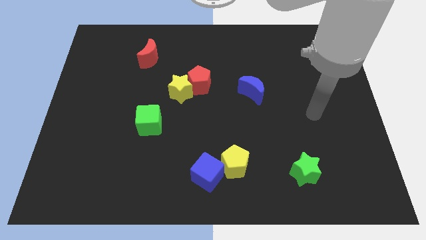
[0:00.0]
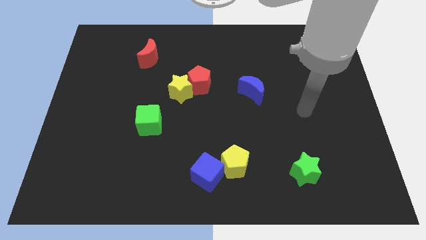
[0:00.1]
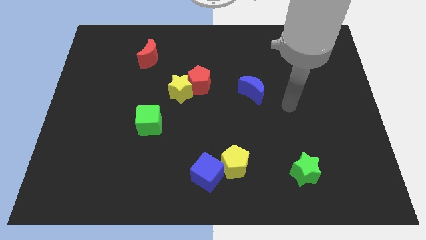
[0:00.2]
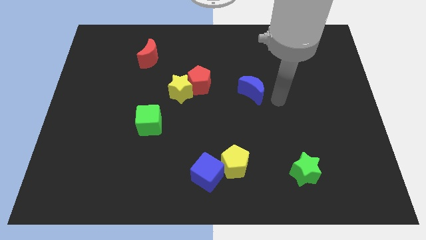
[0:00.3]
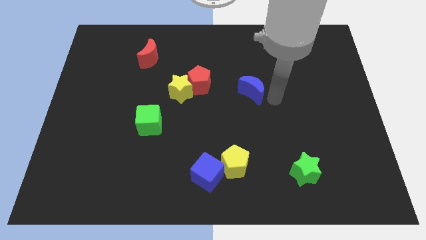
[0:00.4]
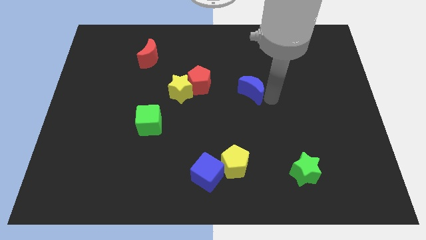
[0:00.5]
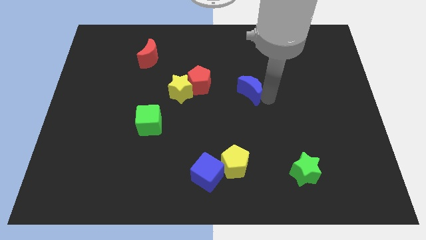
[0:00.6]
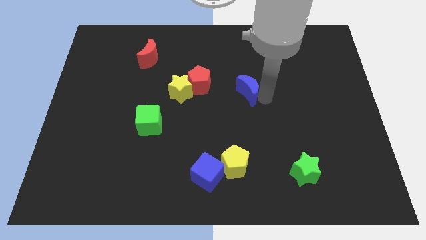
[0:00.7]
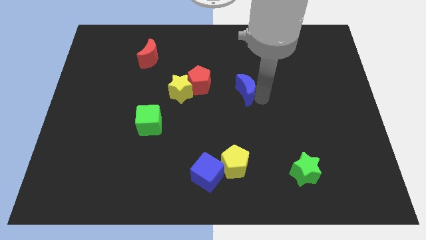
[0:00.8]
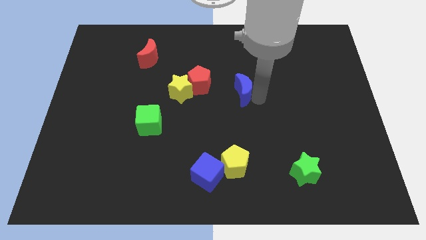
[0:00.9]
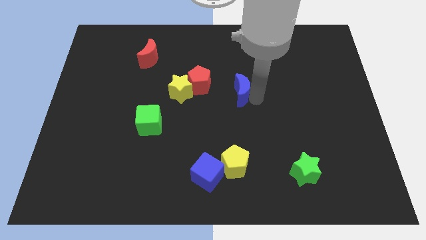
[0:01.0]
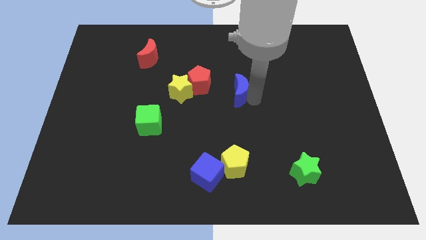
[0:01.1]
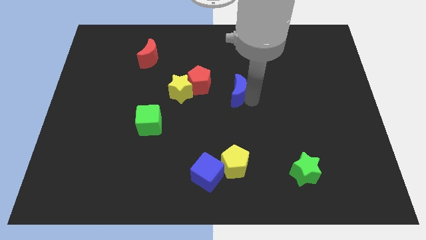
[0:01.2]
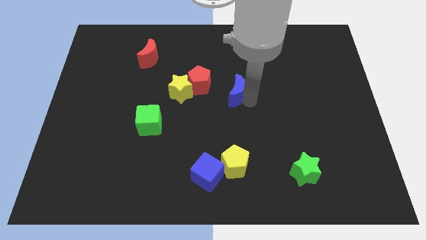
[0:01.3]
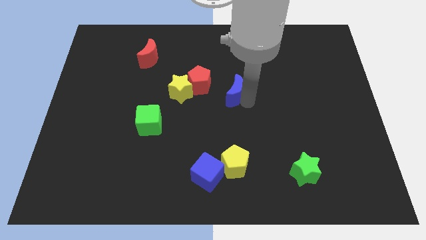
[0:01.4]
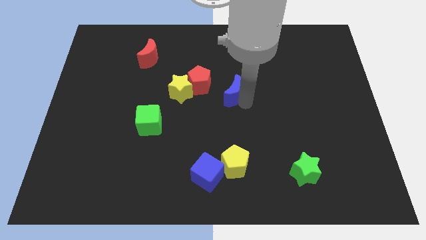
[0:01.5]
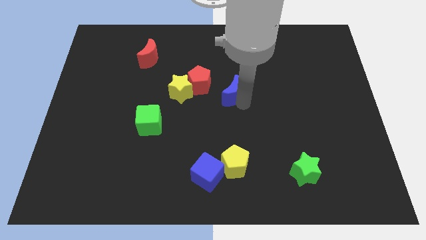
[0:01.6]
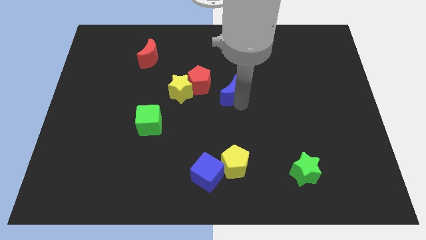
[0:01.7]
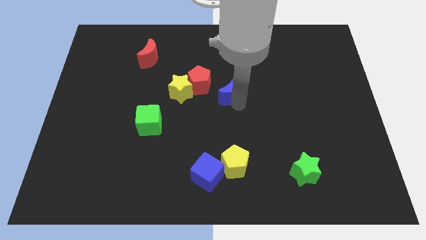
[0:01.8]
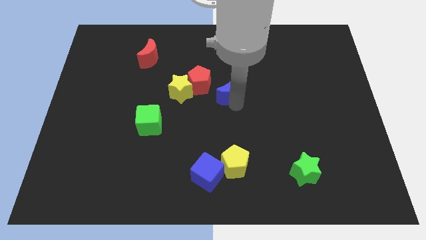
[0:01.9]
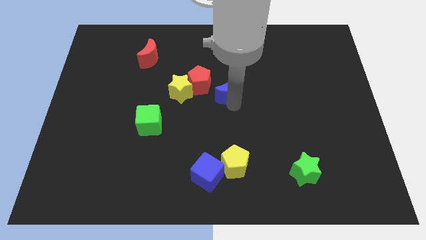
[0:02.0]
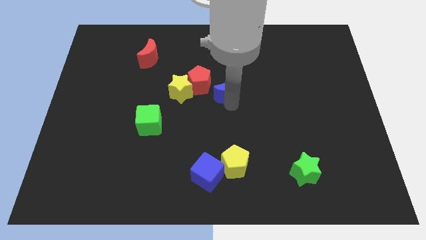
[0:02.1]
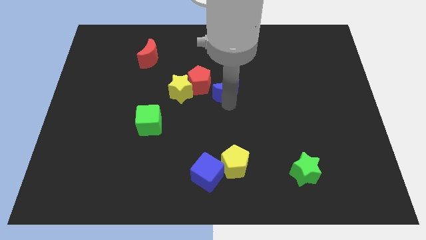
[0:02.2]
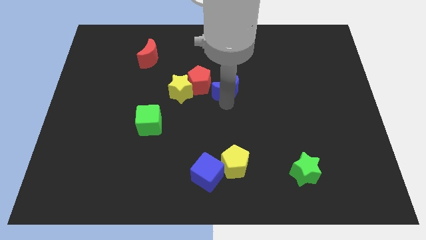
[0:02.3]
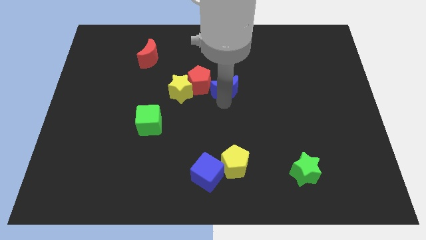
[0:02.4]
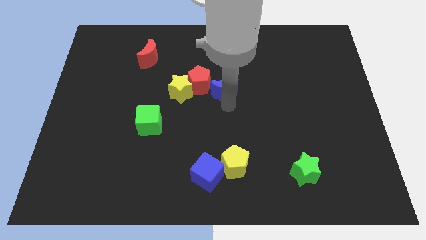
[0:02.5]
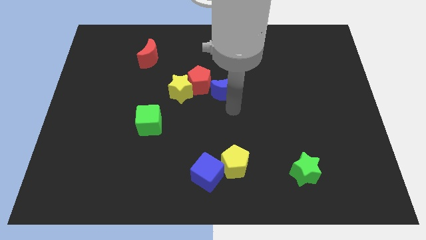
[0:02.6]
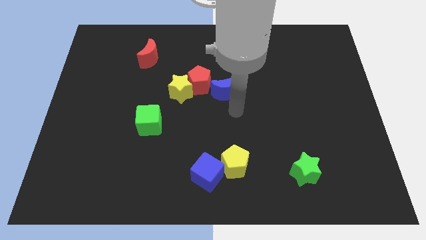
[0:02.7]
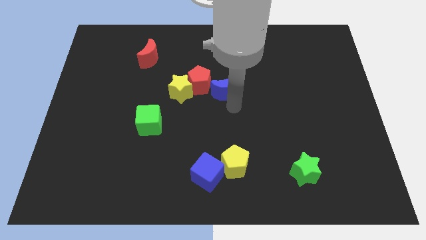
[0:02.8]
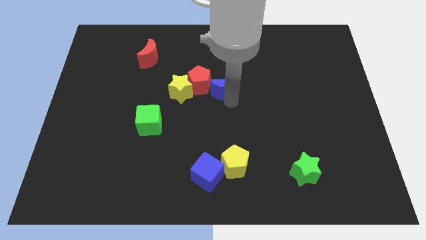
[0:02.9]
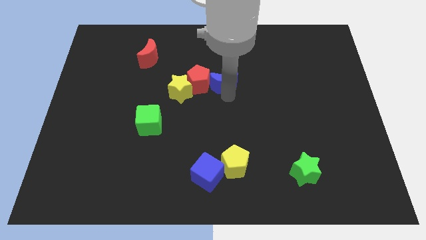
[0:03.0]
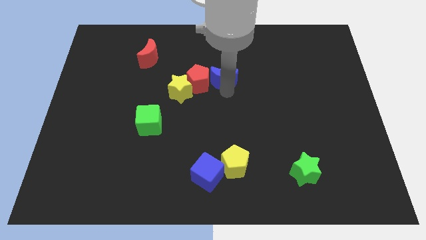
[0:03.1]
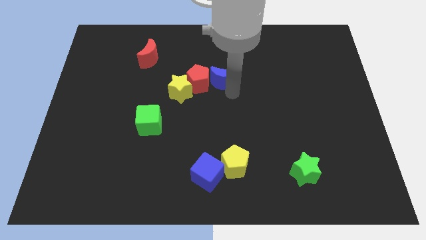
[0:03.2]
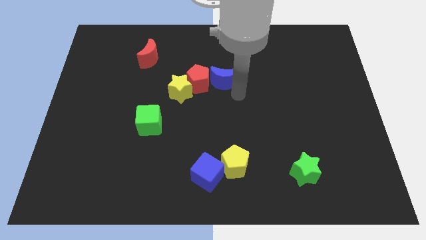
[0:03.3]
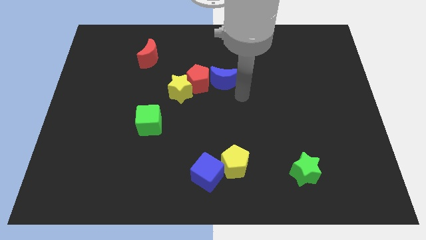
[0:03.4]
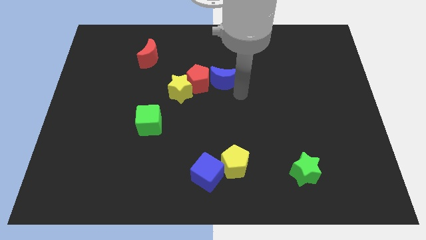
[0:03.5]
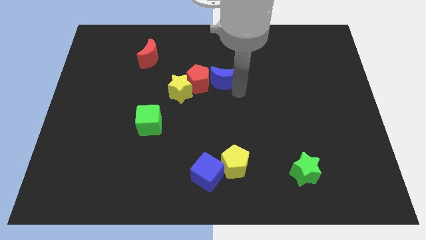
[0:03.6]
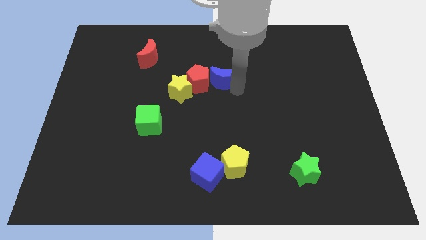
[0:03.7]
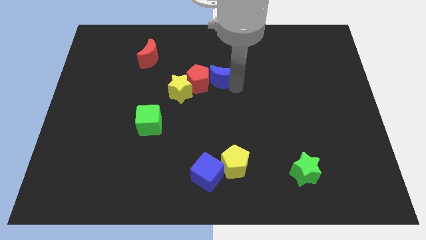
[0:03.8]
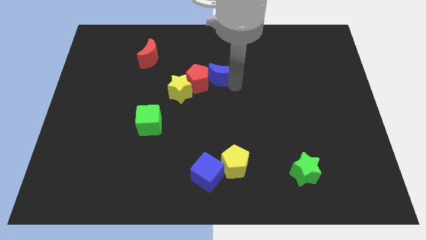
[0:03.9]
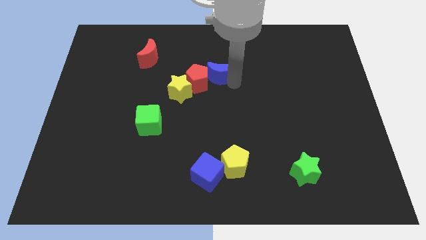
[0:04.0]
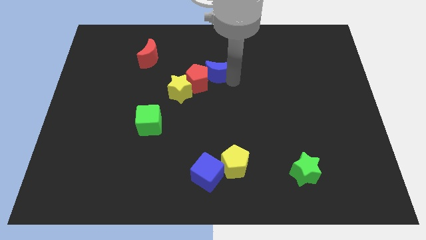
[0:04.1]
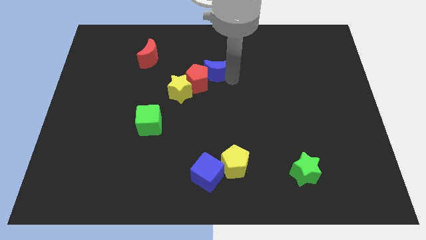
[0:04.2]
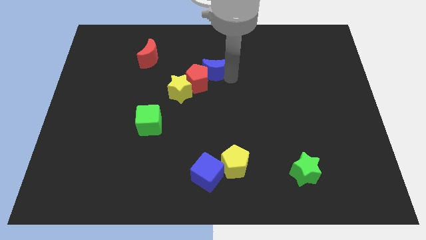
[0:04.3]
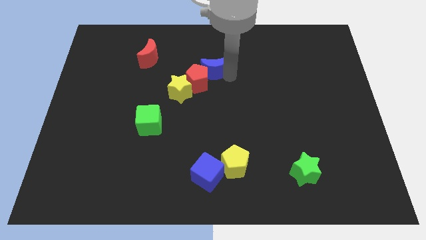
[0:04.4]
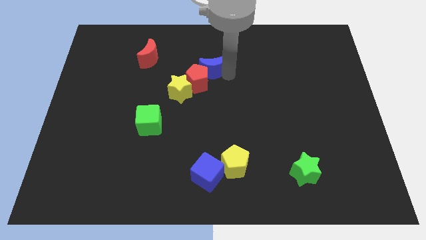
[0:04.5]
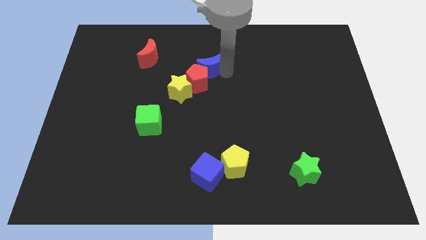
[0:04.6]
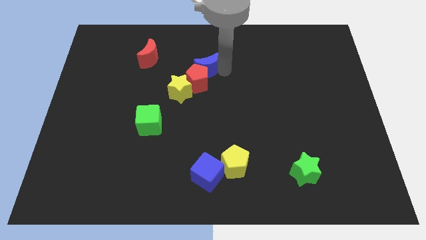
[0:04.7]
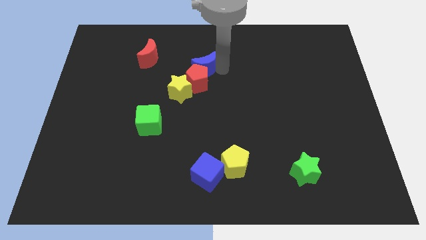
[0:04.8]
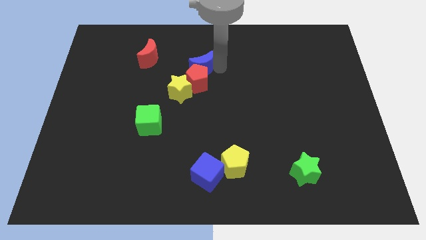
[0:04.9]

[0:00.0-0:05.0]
put the blue moon to the right side of the red moon

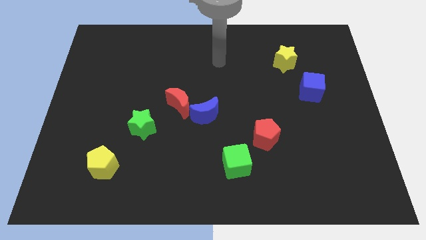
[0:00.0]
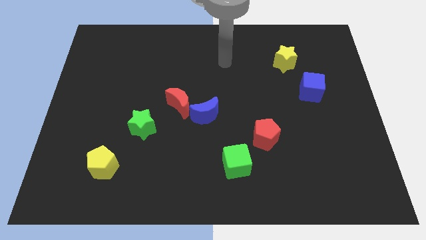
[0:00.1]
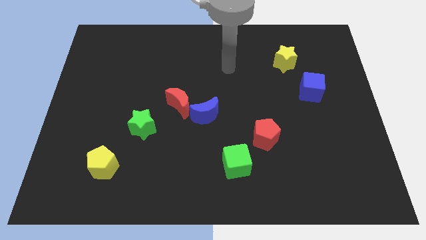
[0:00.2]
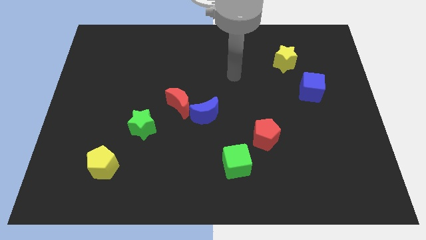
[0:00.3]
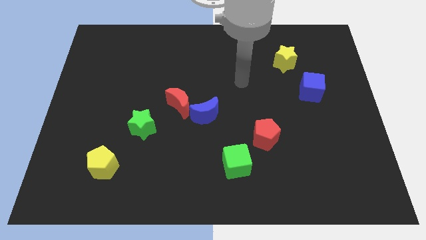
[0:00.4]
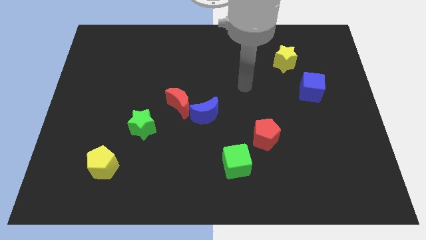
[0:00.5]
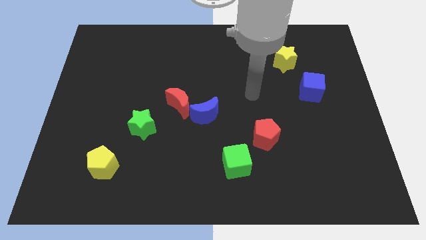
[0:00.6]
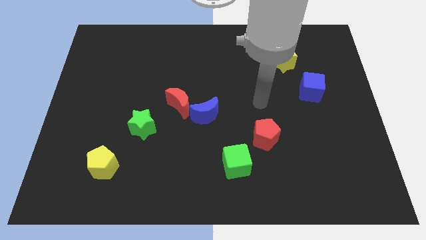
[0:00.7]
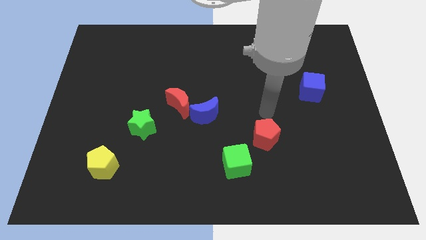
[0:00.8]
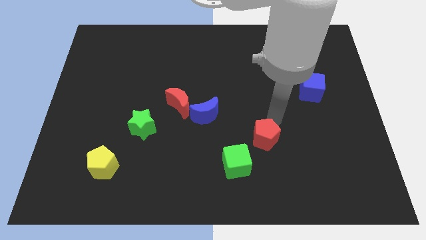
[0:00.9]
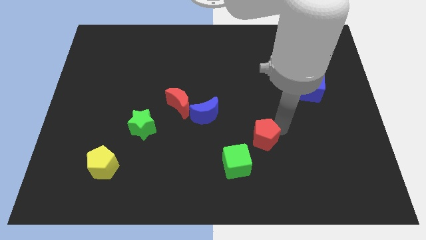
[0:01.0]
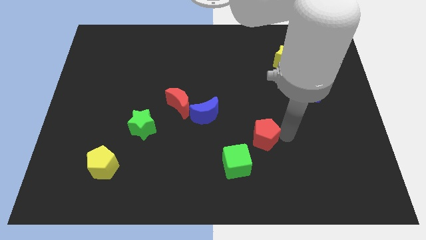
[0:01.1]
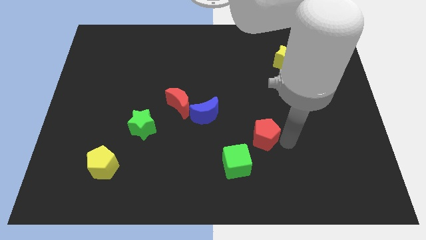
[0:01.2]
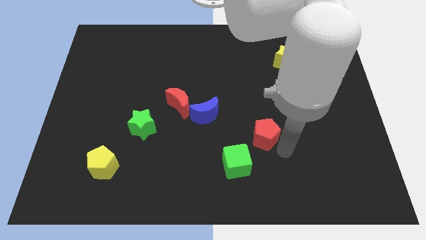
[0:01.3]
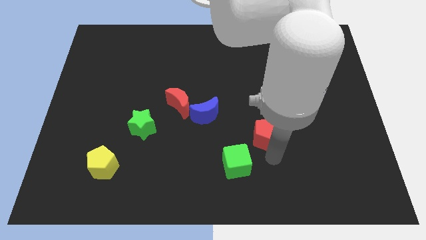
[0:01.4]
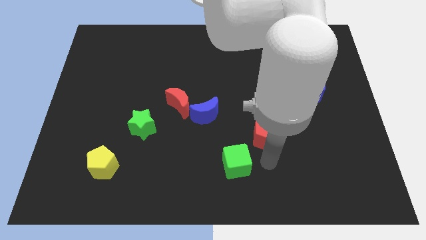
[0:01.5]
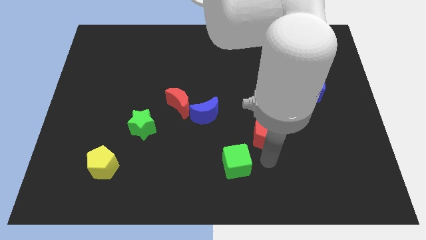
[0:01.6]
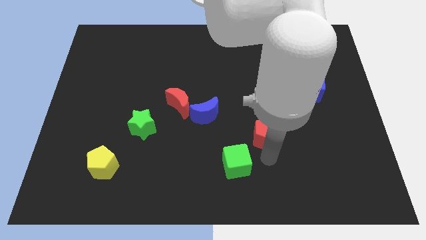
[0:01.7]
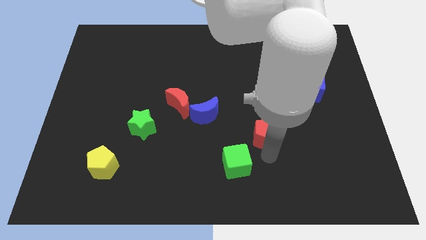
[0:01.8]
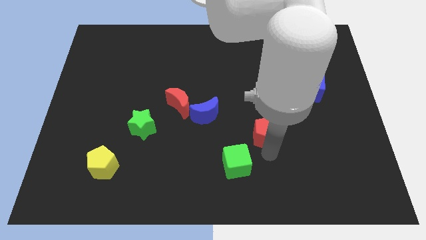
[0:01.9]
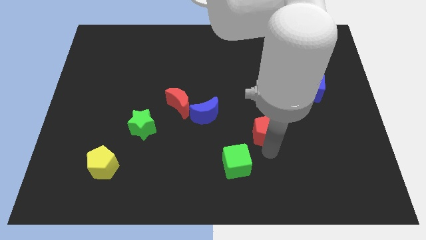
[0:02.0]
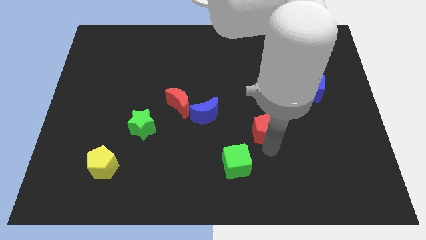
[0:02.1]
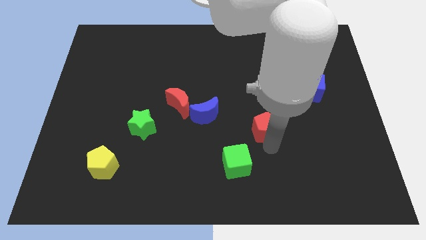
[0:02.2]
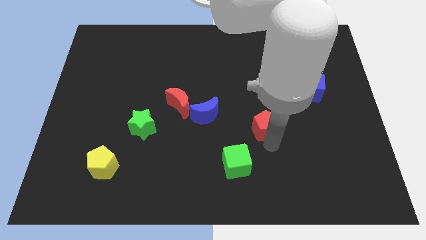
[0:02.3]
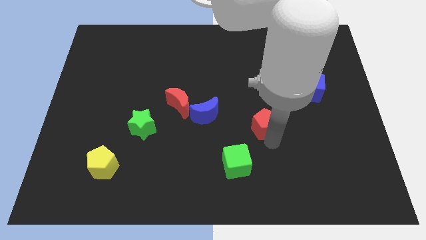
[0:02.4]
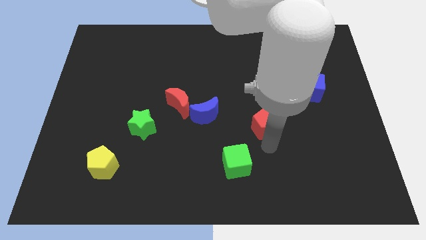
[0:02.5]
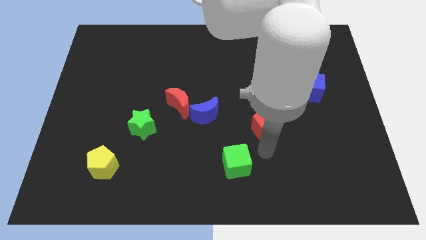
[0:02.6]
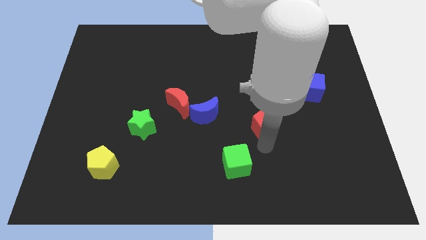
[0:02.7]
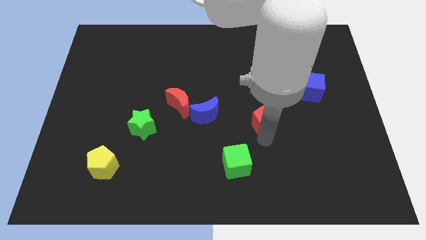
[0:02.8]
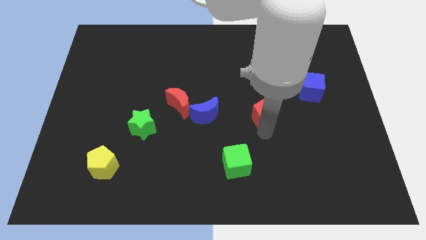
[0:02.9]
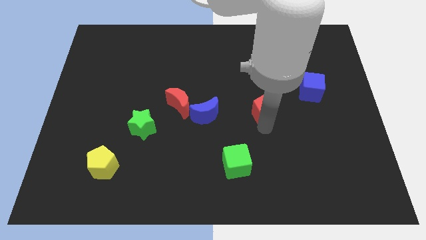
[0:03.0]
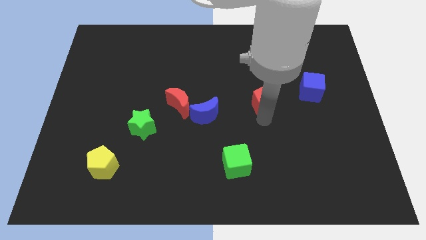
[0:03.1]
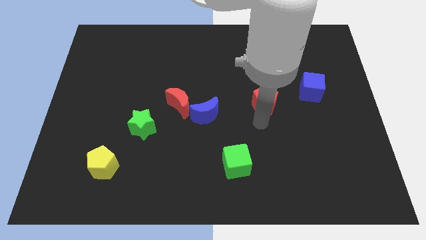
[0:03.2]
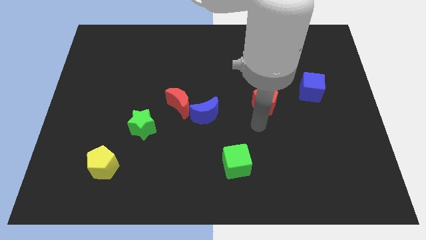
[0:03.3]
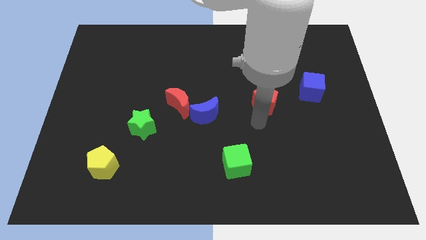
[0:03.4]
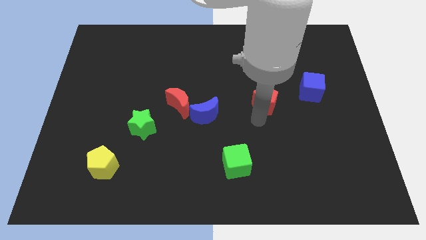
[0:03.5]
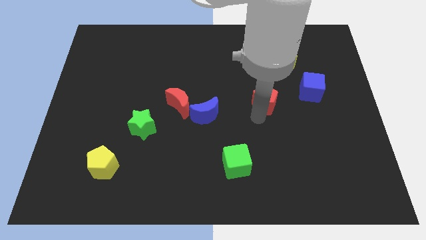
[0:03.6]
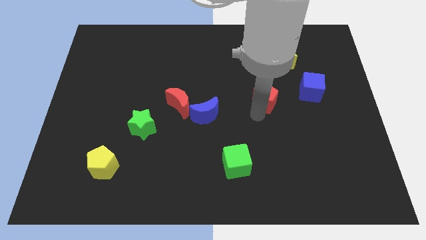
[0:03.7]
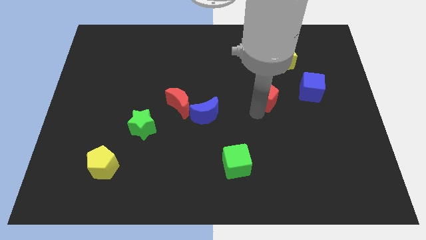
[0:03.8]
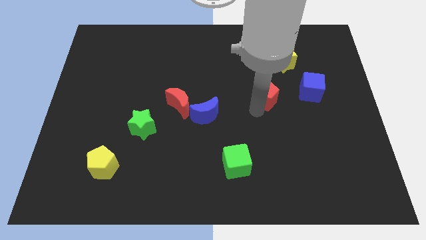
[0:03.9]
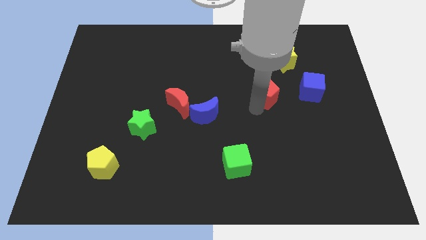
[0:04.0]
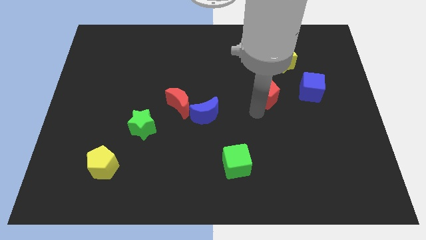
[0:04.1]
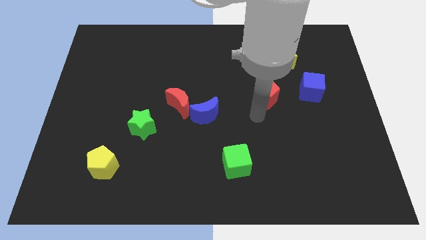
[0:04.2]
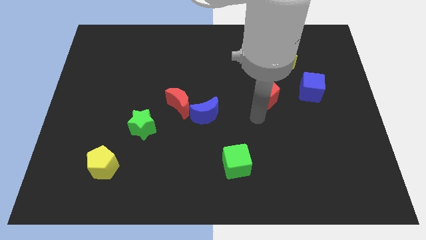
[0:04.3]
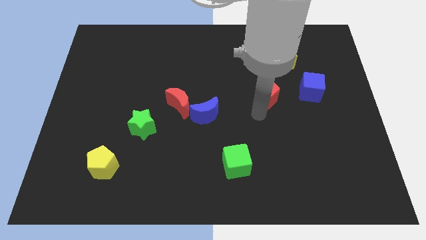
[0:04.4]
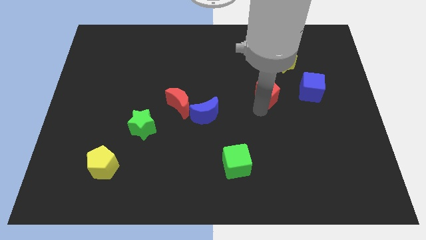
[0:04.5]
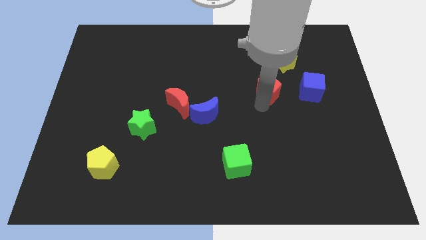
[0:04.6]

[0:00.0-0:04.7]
move the red pentagon to the bottom left of the yellow star
